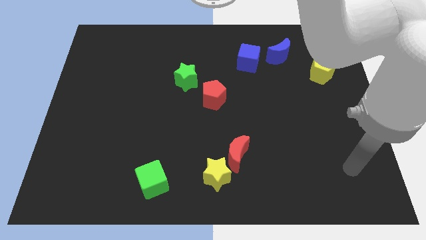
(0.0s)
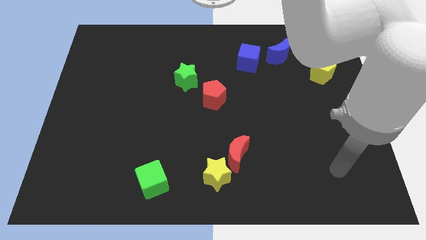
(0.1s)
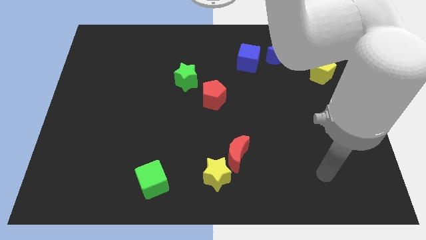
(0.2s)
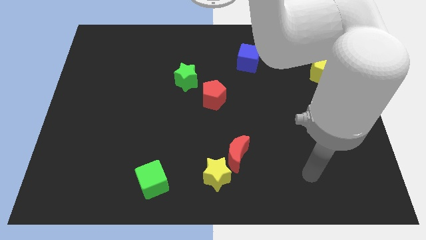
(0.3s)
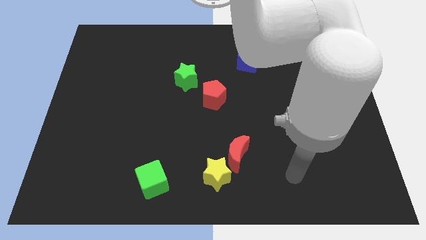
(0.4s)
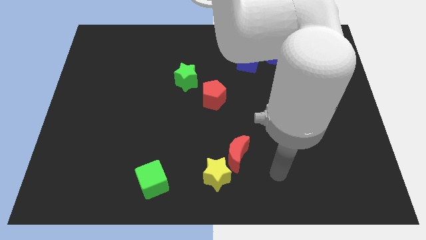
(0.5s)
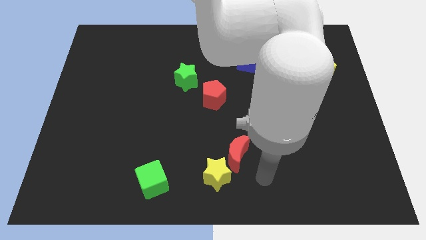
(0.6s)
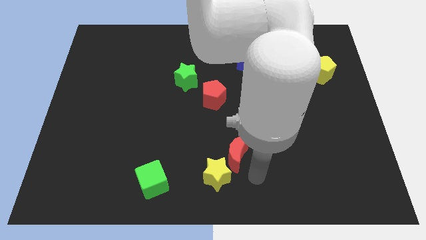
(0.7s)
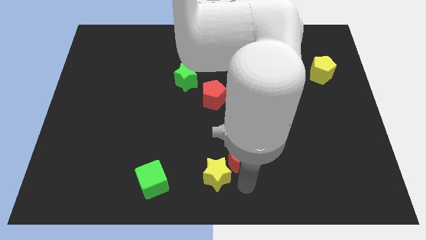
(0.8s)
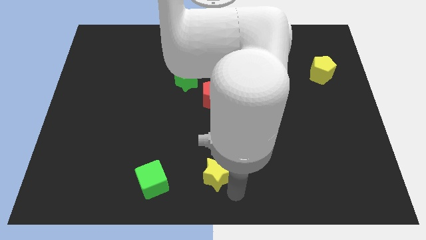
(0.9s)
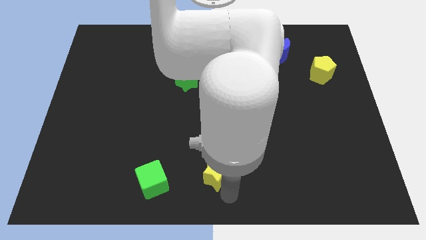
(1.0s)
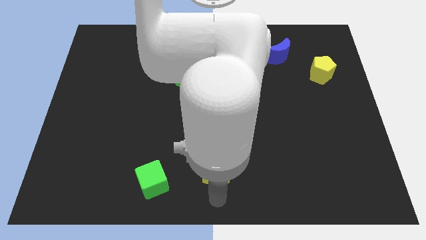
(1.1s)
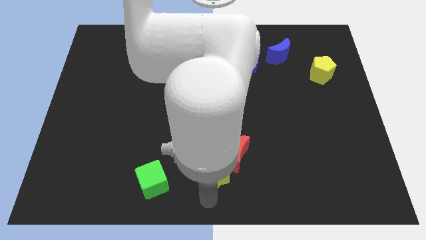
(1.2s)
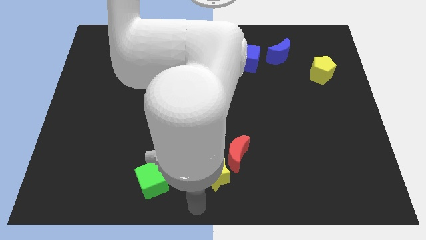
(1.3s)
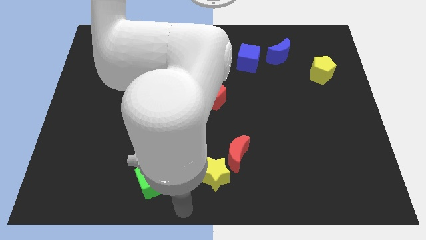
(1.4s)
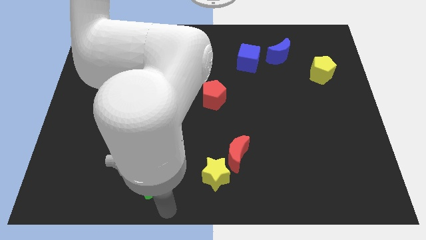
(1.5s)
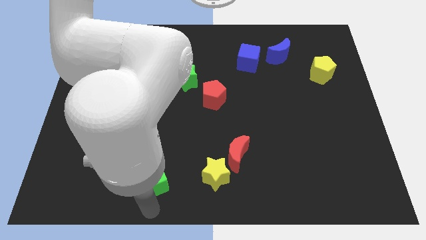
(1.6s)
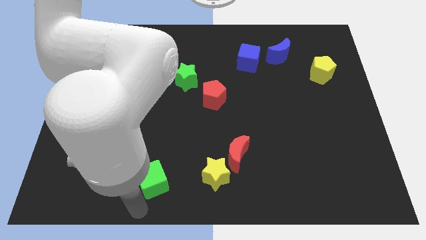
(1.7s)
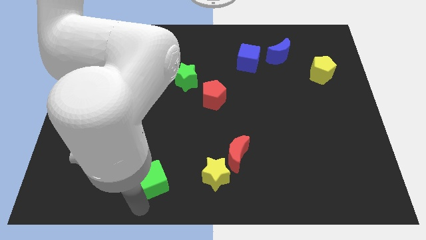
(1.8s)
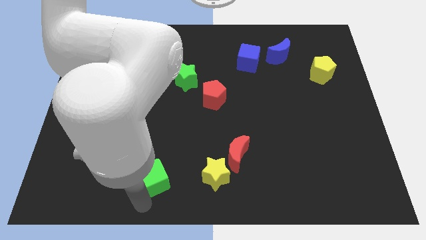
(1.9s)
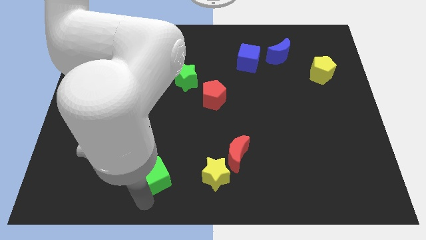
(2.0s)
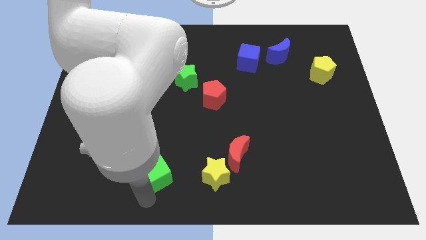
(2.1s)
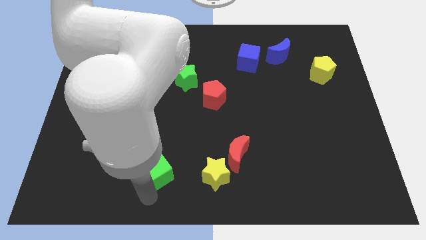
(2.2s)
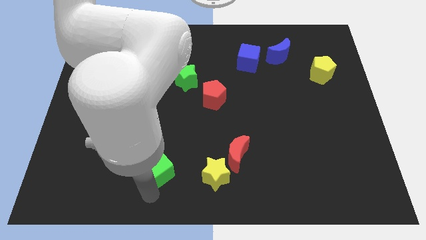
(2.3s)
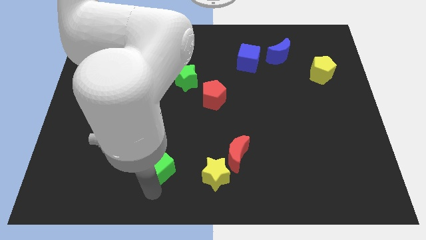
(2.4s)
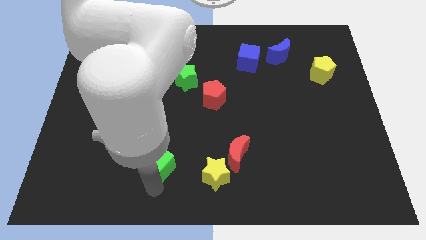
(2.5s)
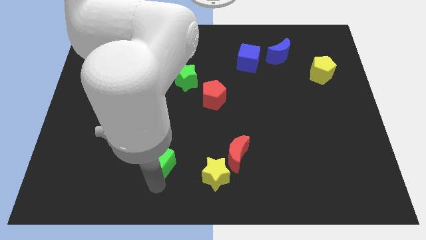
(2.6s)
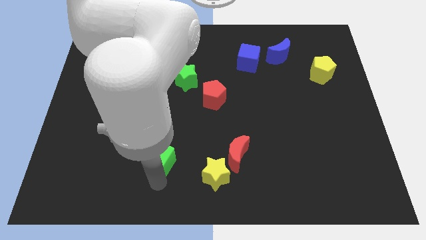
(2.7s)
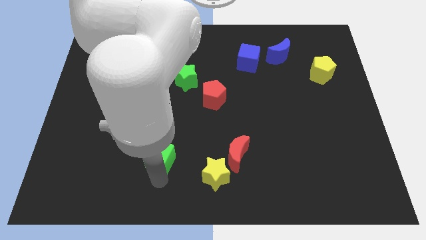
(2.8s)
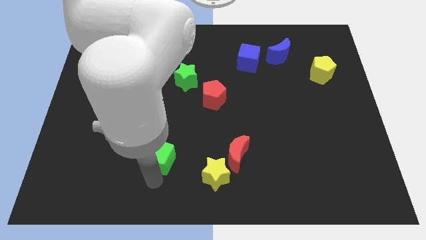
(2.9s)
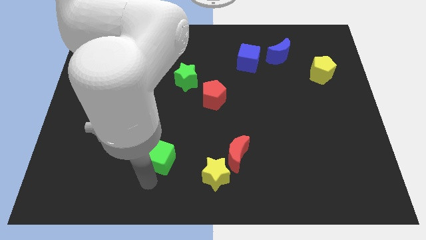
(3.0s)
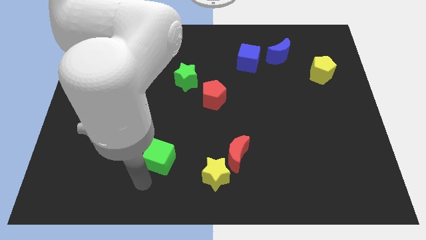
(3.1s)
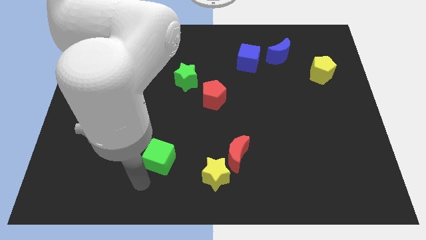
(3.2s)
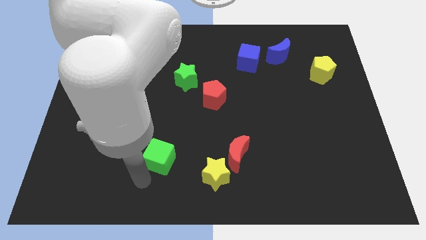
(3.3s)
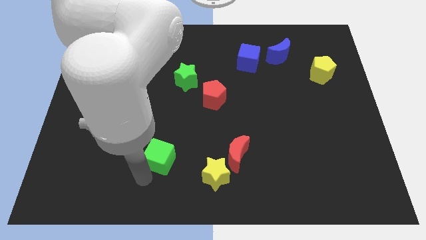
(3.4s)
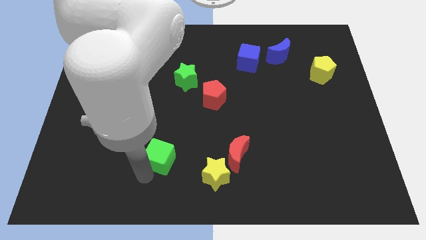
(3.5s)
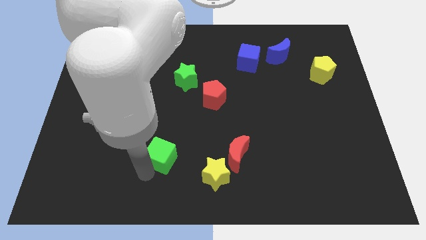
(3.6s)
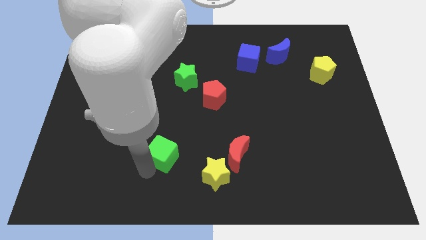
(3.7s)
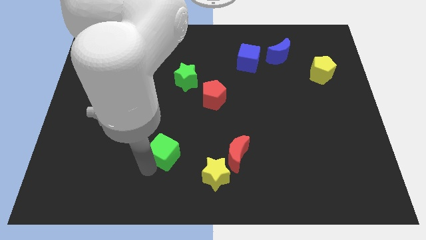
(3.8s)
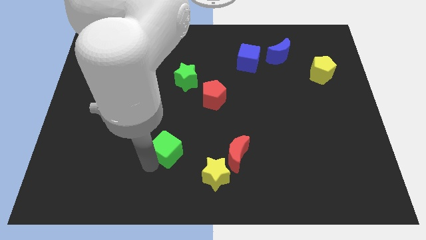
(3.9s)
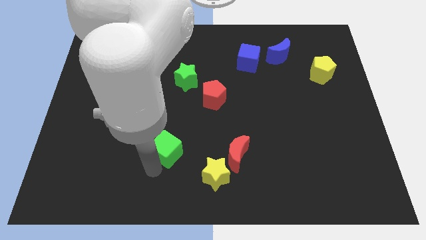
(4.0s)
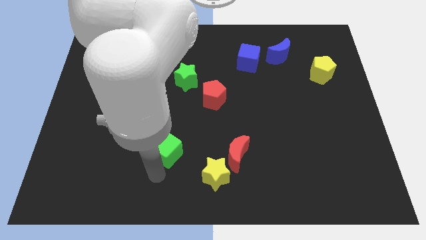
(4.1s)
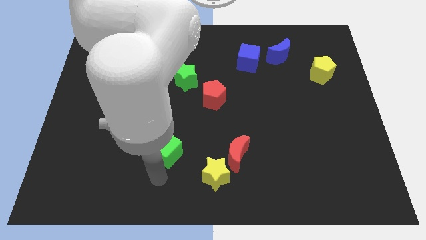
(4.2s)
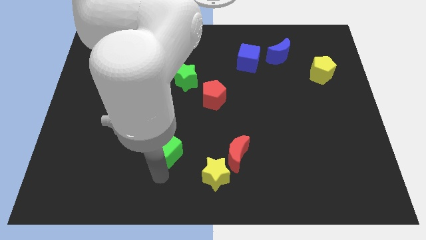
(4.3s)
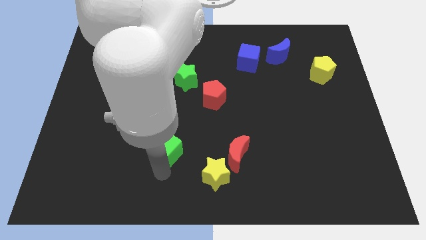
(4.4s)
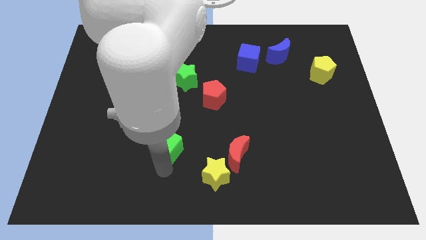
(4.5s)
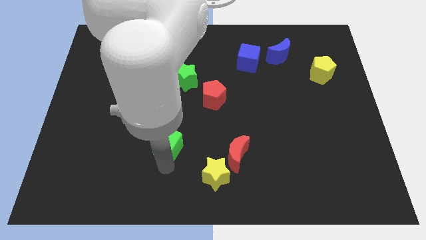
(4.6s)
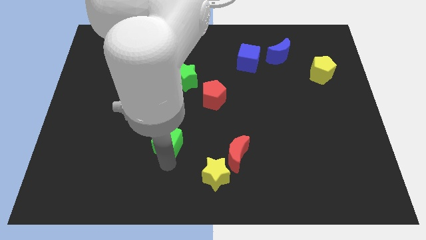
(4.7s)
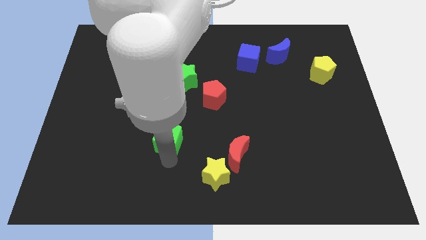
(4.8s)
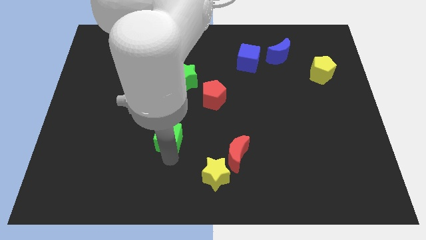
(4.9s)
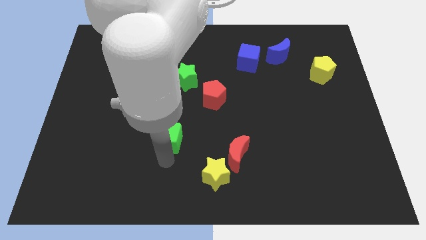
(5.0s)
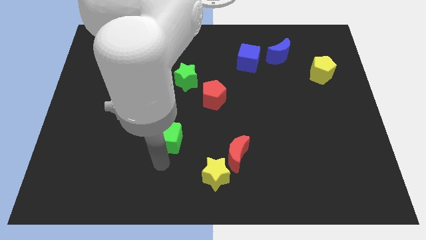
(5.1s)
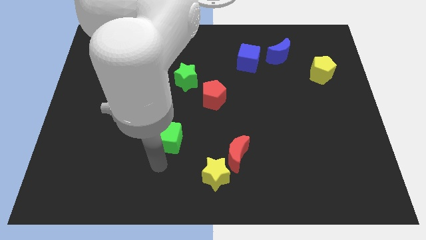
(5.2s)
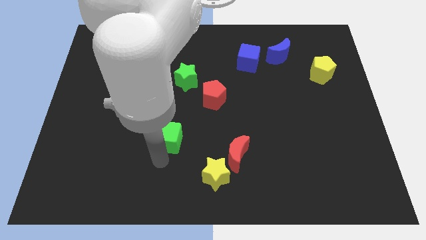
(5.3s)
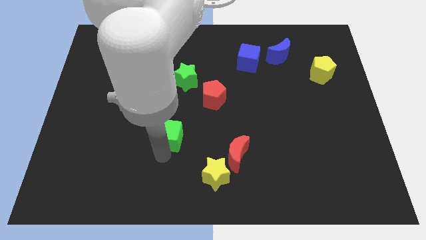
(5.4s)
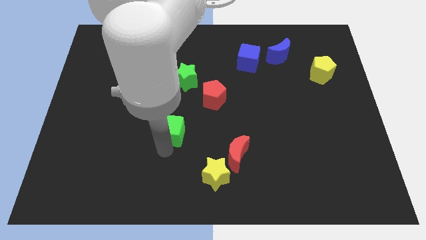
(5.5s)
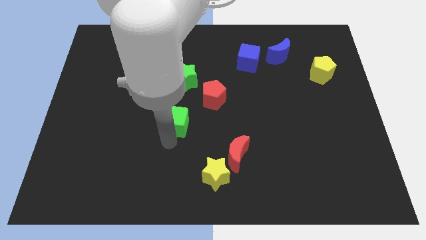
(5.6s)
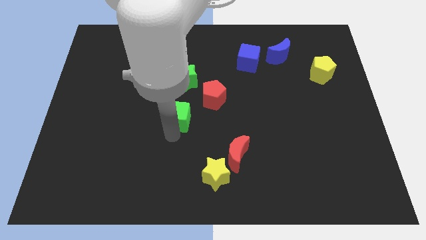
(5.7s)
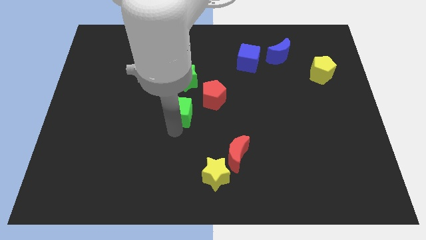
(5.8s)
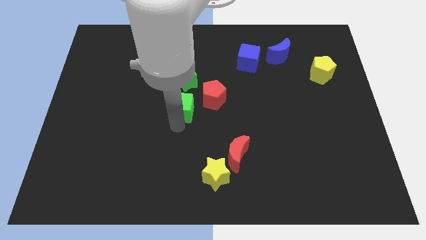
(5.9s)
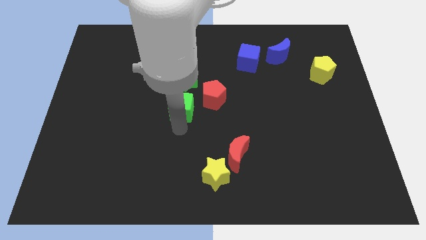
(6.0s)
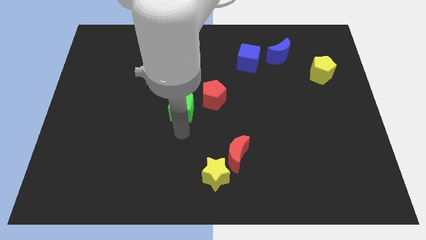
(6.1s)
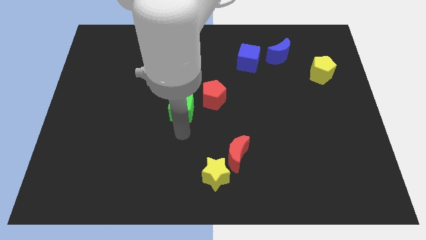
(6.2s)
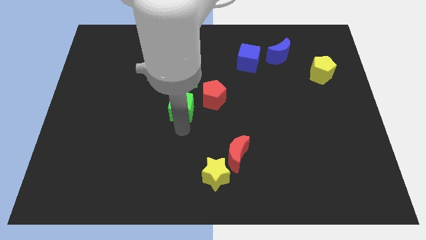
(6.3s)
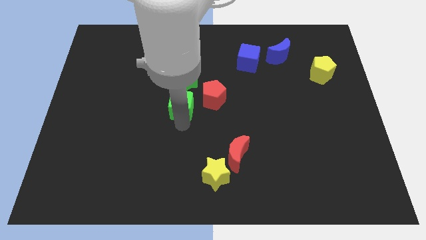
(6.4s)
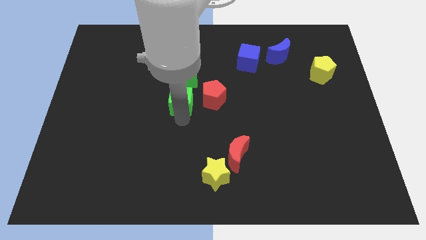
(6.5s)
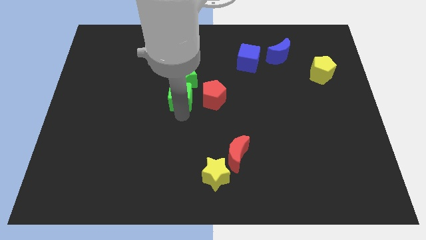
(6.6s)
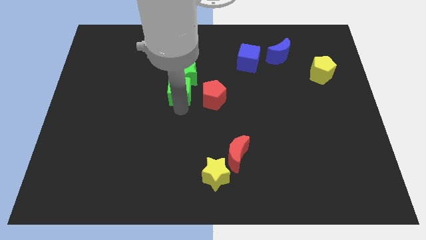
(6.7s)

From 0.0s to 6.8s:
slide the green cube next to the green star

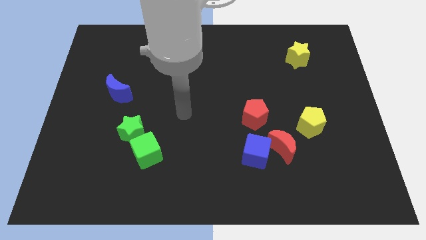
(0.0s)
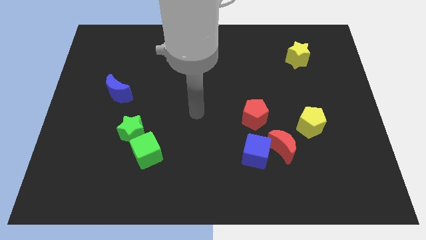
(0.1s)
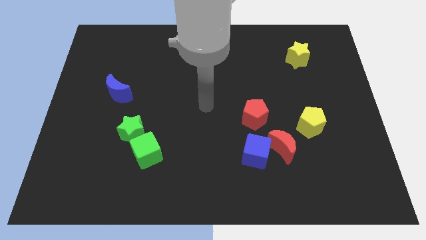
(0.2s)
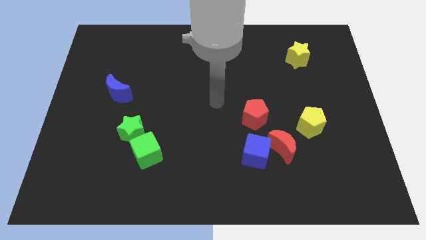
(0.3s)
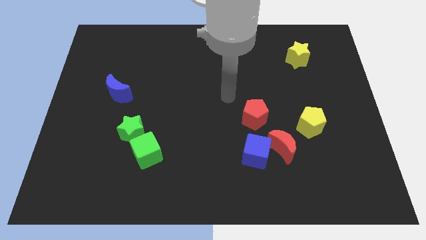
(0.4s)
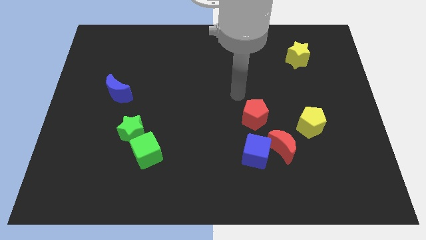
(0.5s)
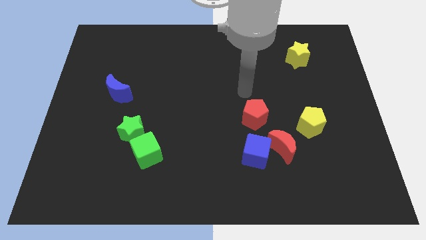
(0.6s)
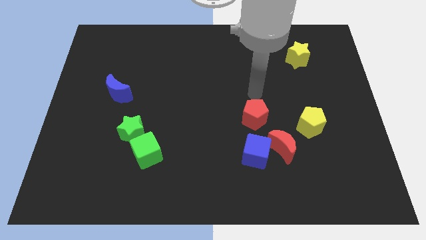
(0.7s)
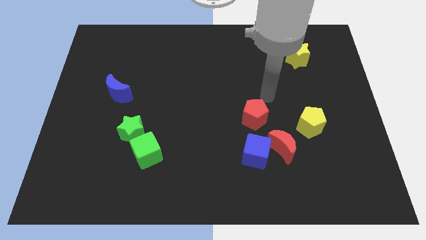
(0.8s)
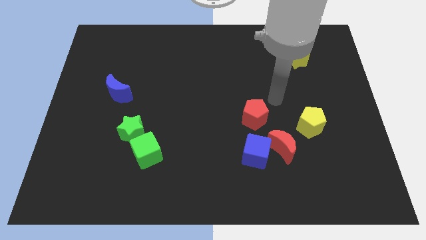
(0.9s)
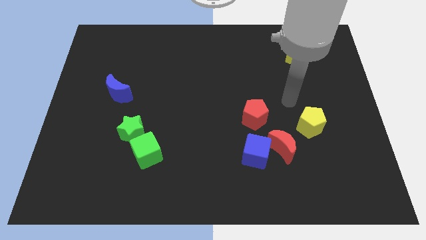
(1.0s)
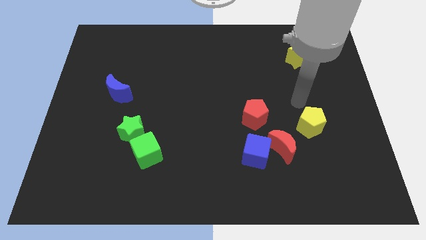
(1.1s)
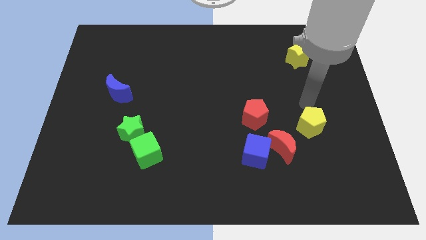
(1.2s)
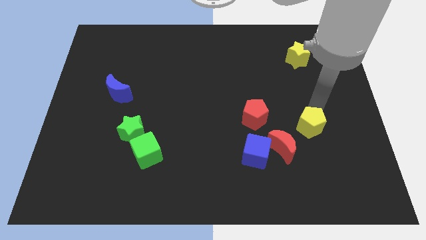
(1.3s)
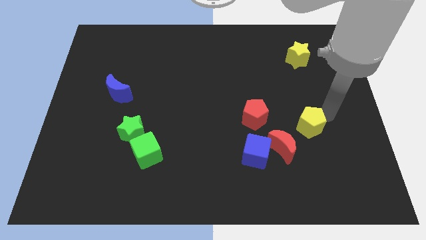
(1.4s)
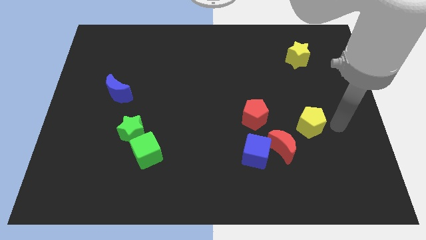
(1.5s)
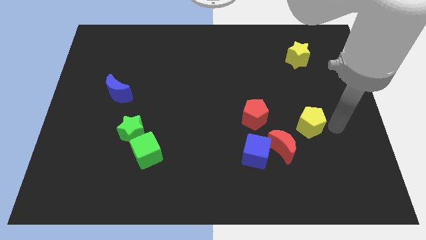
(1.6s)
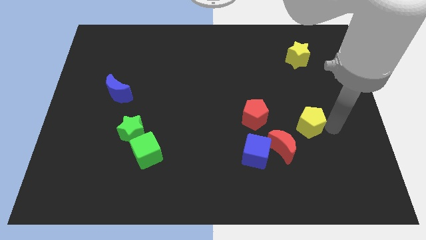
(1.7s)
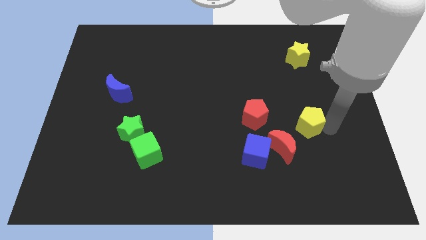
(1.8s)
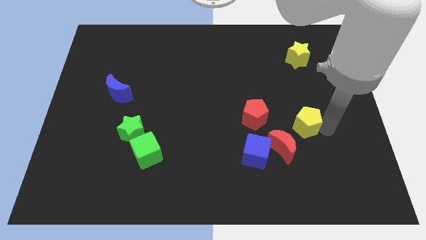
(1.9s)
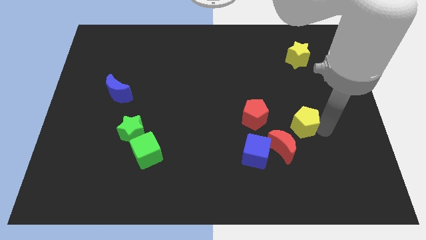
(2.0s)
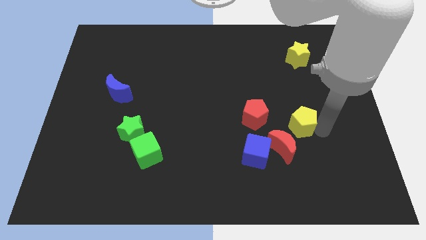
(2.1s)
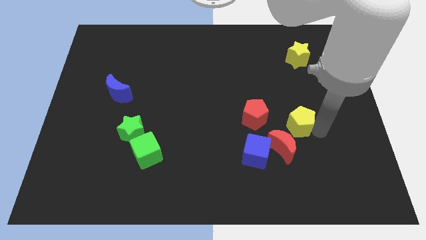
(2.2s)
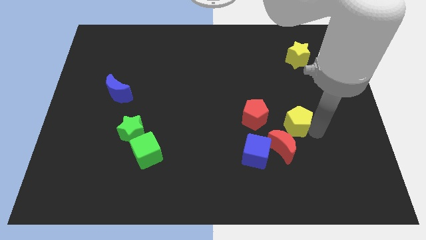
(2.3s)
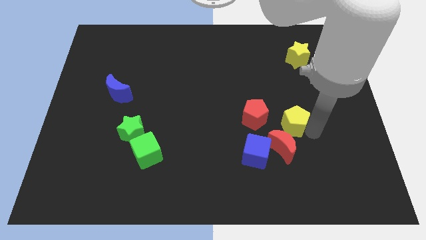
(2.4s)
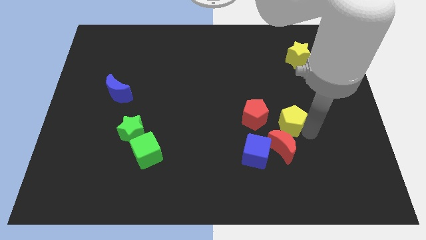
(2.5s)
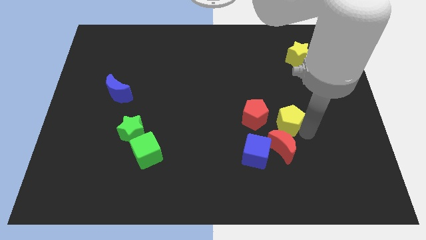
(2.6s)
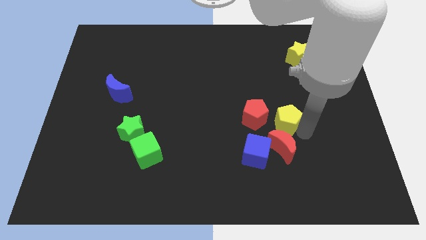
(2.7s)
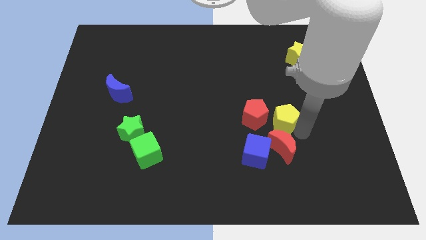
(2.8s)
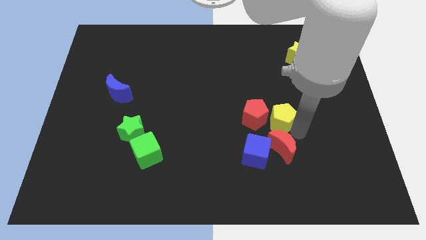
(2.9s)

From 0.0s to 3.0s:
put the yellow pentagon next to the red pentagon
